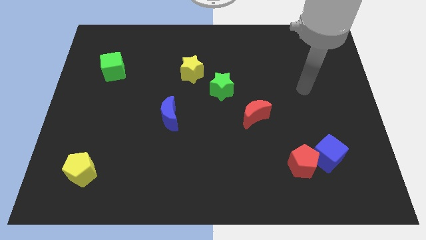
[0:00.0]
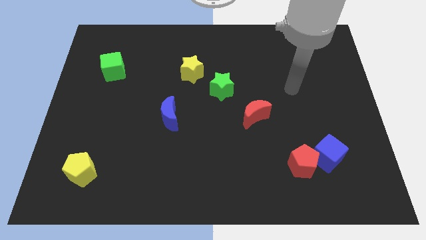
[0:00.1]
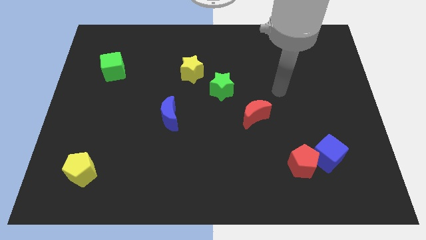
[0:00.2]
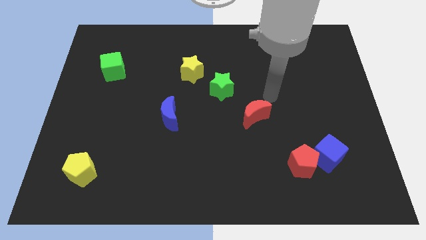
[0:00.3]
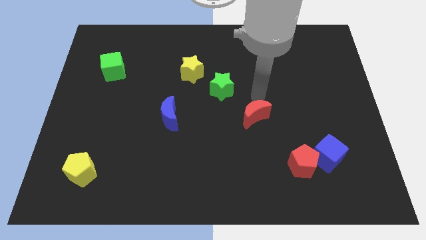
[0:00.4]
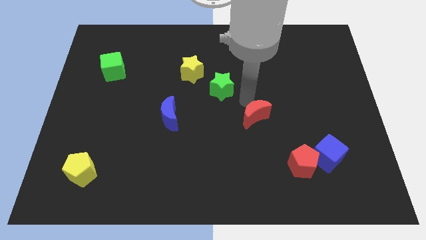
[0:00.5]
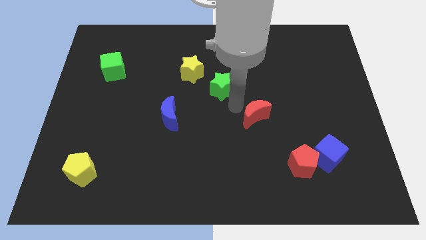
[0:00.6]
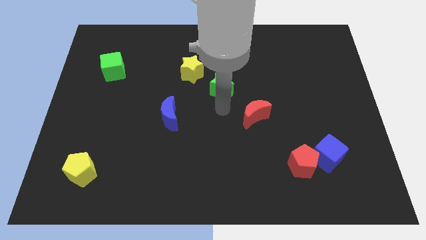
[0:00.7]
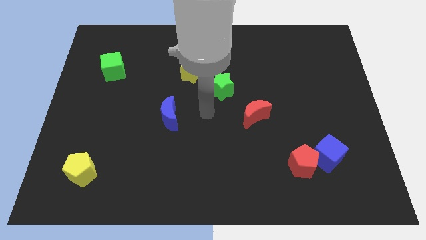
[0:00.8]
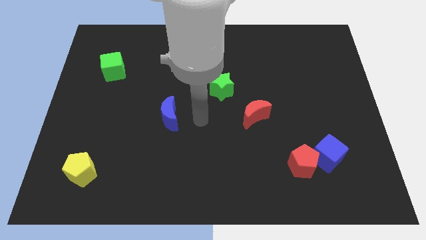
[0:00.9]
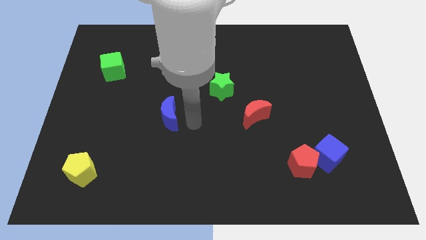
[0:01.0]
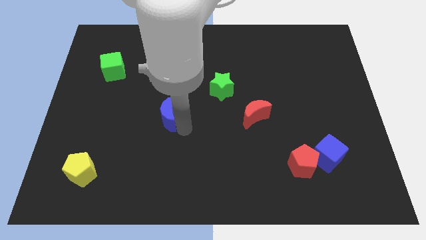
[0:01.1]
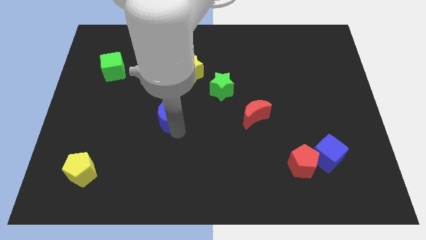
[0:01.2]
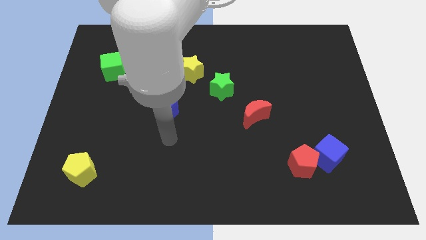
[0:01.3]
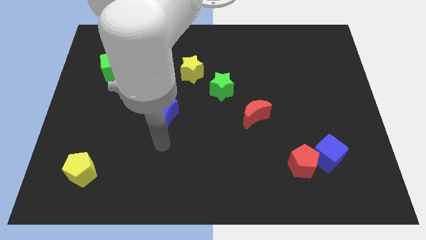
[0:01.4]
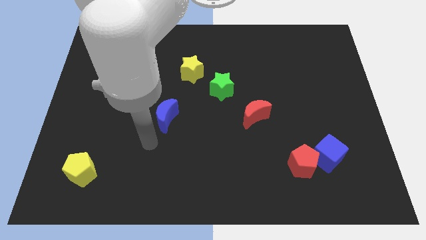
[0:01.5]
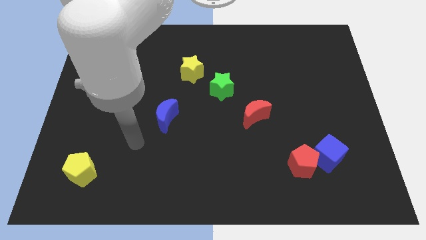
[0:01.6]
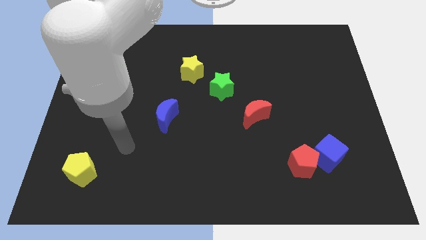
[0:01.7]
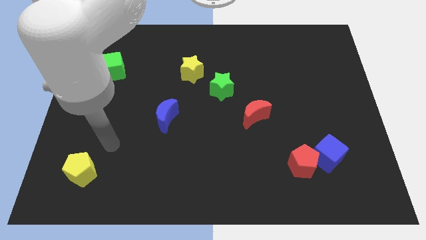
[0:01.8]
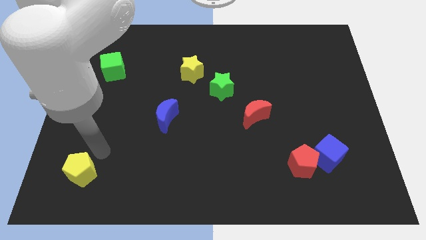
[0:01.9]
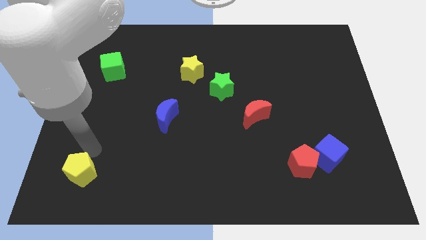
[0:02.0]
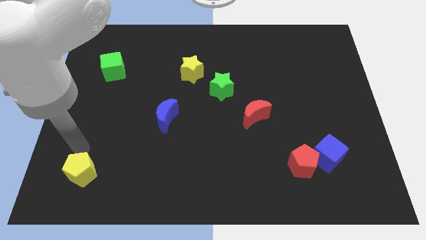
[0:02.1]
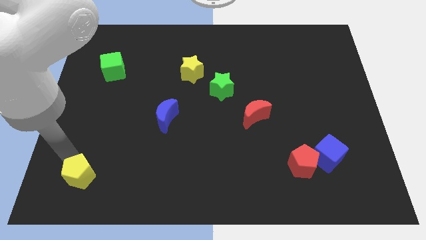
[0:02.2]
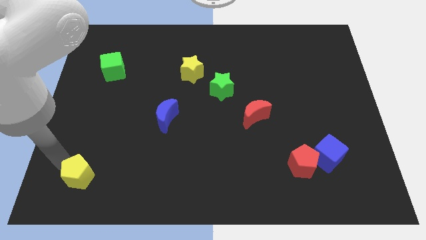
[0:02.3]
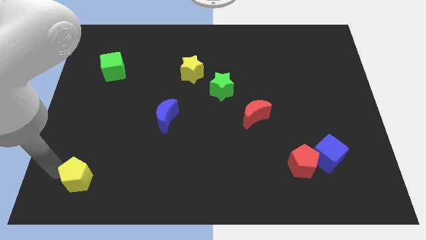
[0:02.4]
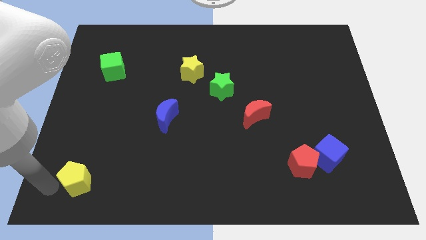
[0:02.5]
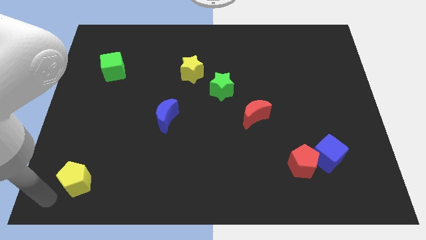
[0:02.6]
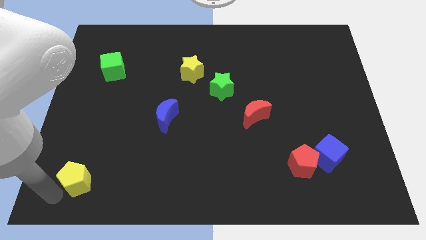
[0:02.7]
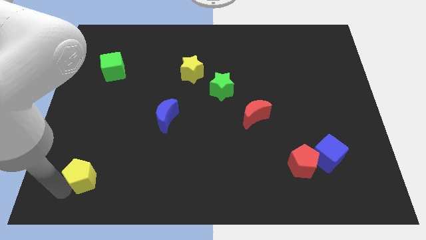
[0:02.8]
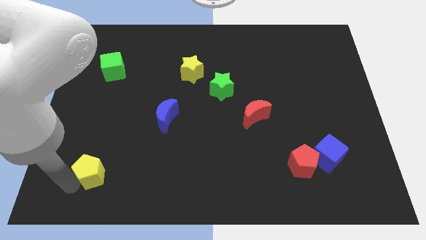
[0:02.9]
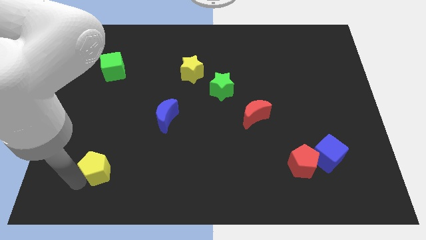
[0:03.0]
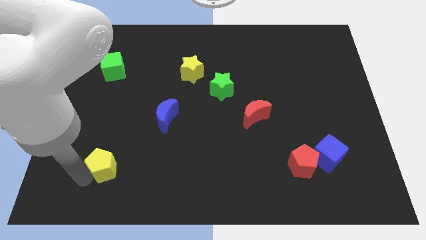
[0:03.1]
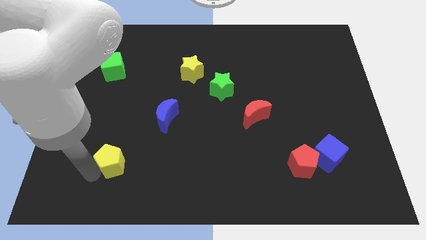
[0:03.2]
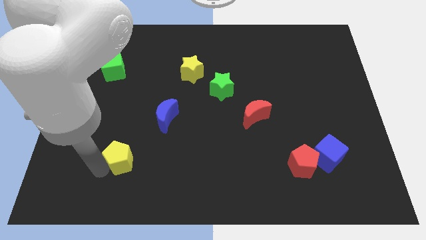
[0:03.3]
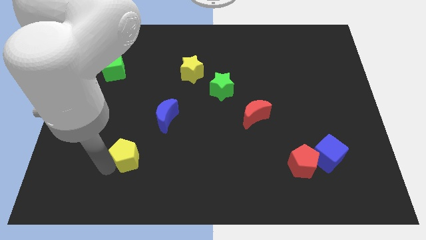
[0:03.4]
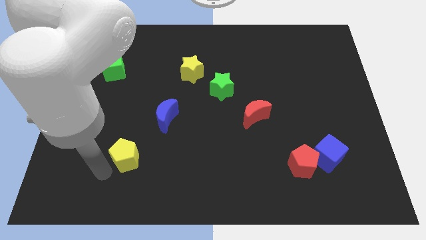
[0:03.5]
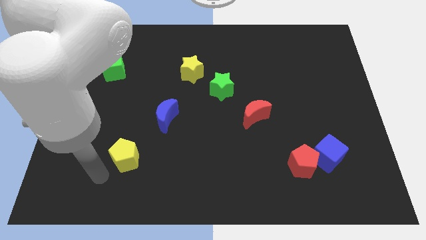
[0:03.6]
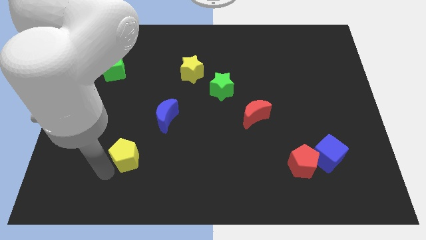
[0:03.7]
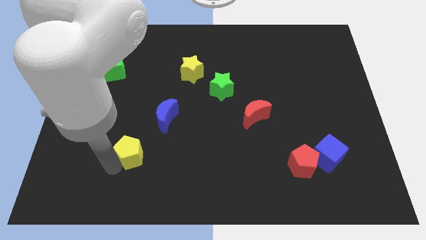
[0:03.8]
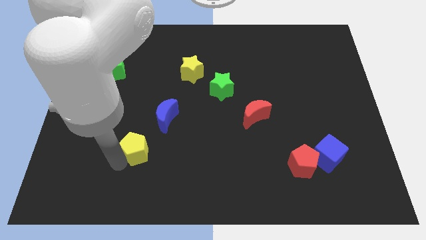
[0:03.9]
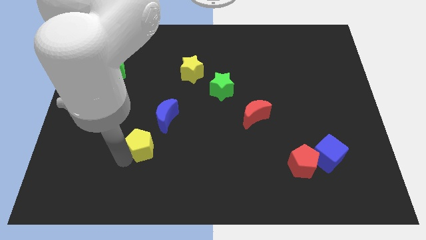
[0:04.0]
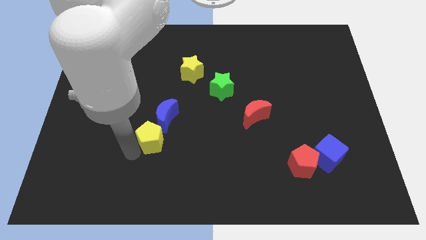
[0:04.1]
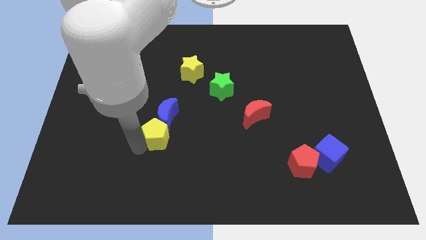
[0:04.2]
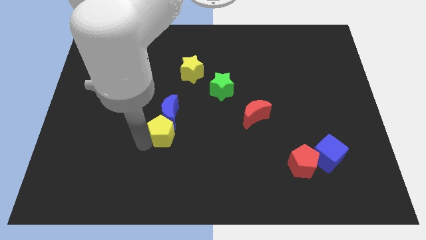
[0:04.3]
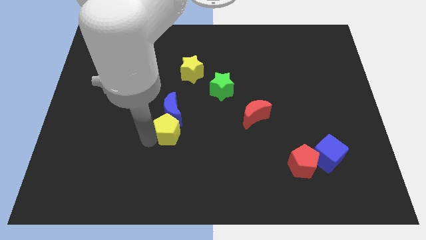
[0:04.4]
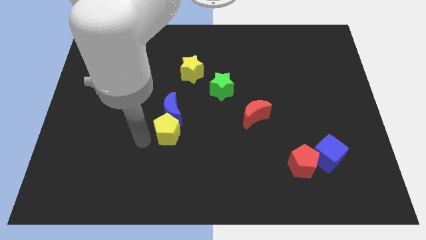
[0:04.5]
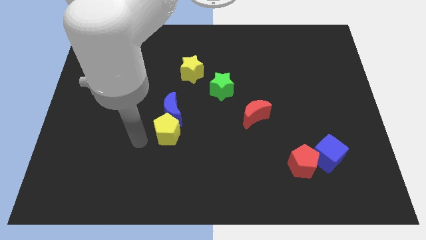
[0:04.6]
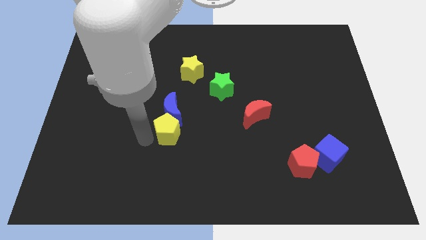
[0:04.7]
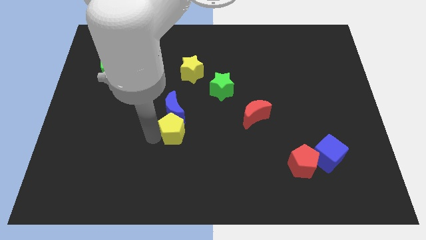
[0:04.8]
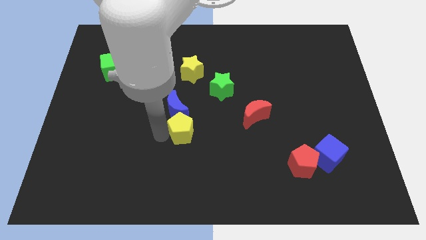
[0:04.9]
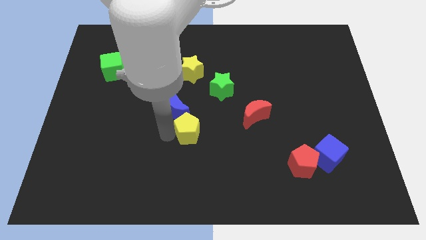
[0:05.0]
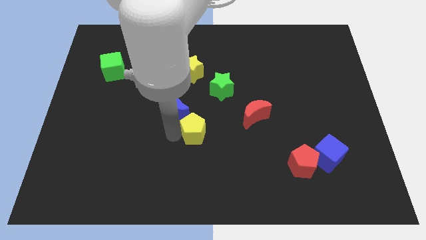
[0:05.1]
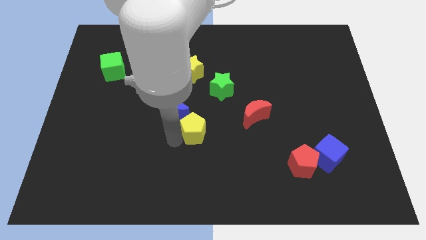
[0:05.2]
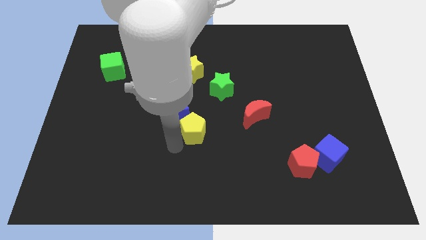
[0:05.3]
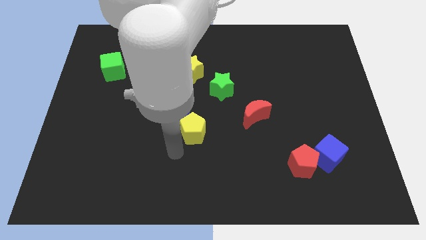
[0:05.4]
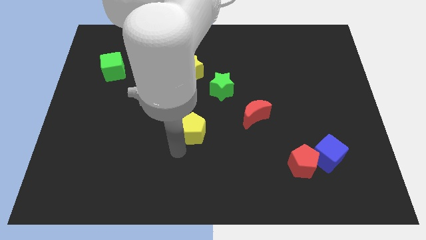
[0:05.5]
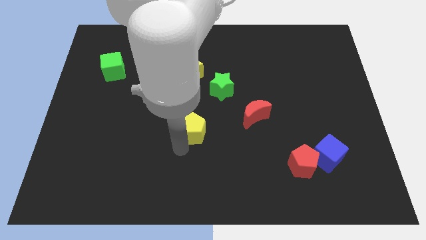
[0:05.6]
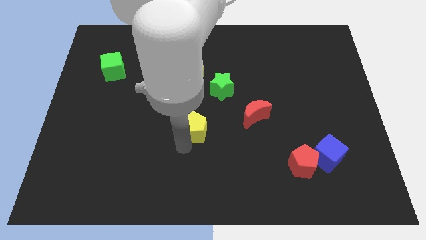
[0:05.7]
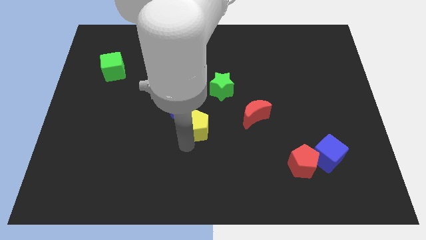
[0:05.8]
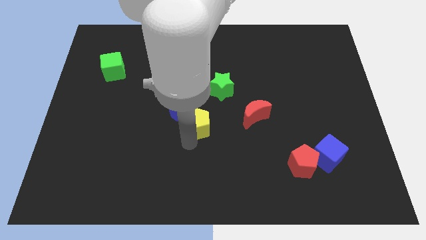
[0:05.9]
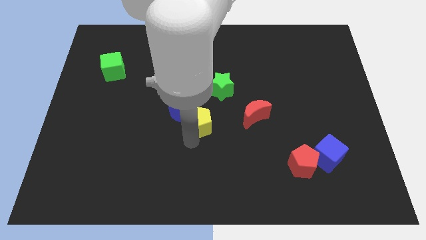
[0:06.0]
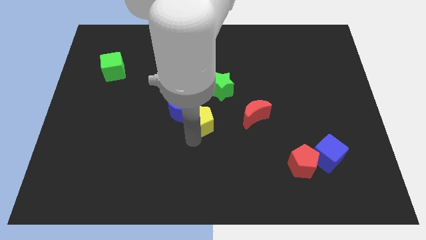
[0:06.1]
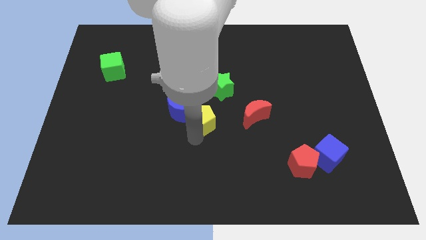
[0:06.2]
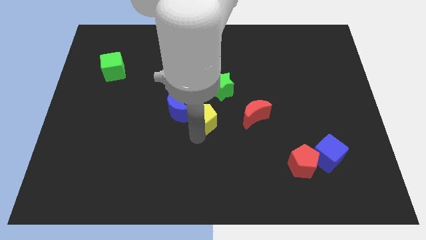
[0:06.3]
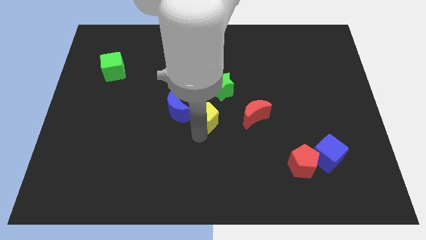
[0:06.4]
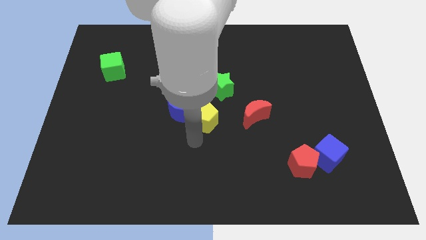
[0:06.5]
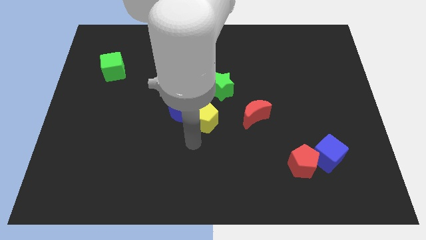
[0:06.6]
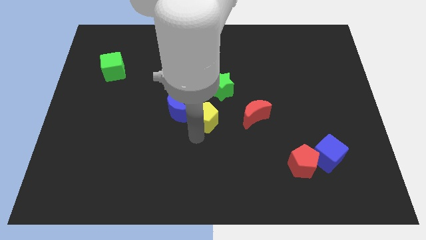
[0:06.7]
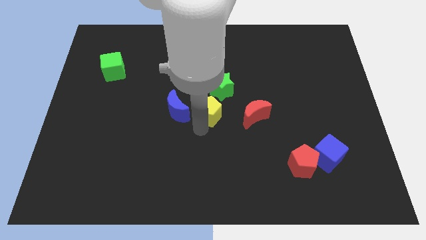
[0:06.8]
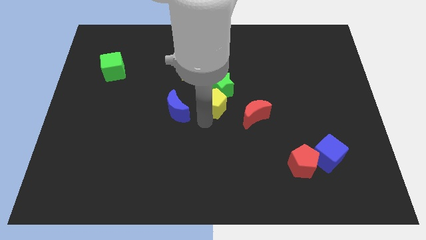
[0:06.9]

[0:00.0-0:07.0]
move the yellow pentagon close to the green star
